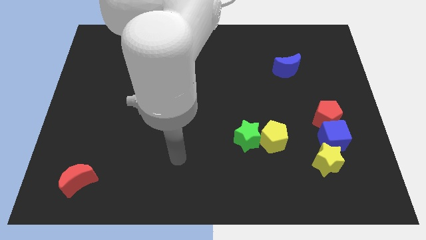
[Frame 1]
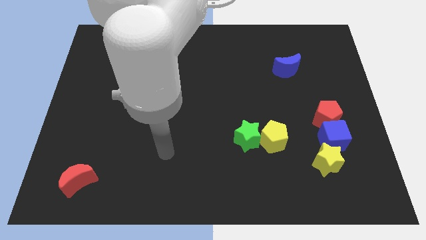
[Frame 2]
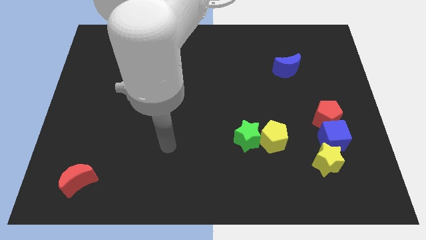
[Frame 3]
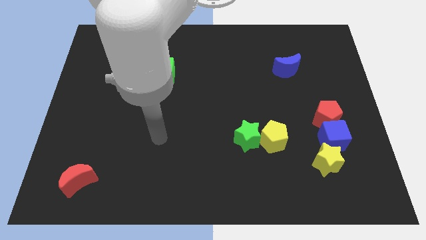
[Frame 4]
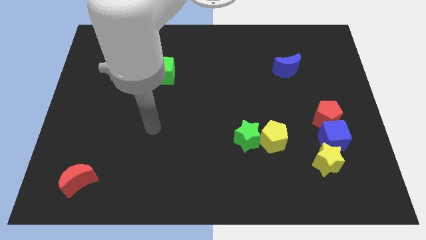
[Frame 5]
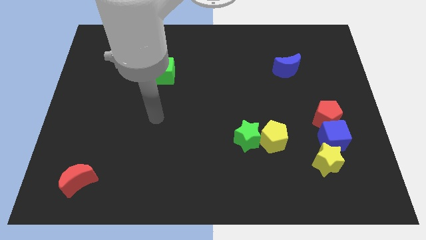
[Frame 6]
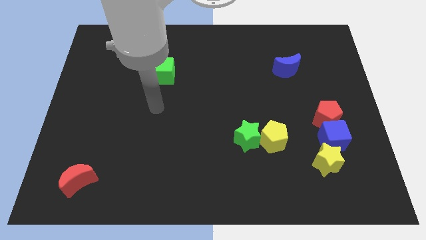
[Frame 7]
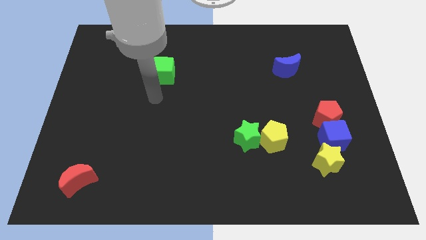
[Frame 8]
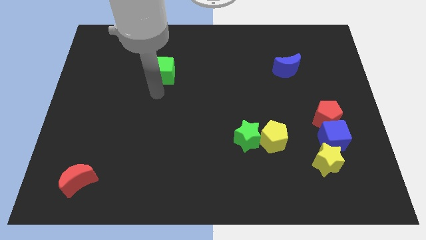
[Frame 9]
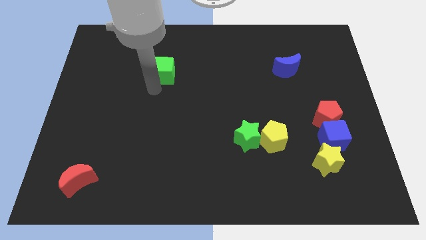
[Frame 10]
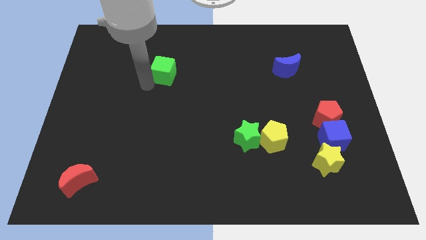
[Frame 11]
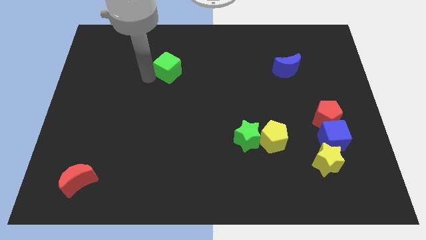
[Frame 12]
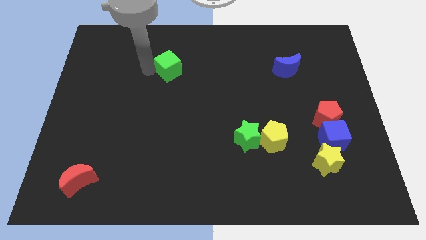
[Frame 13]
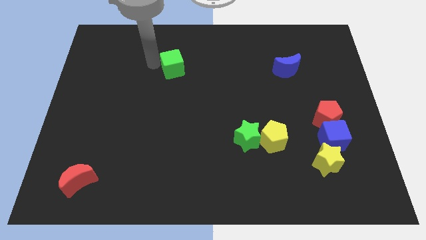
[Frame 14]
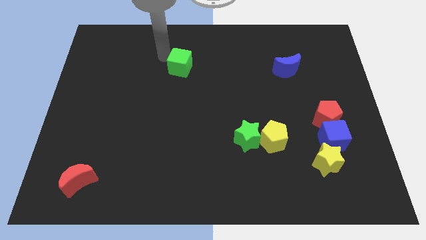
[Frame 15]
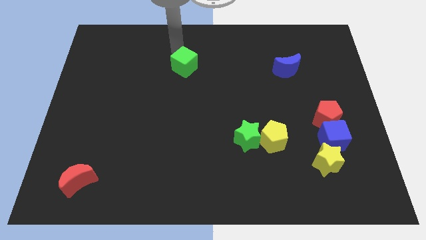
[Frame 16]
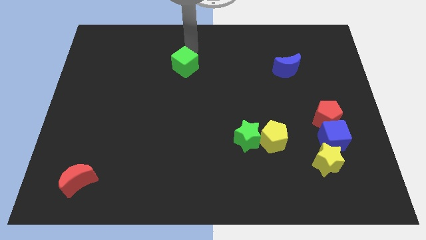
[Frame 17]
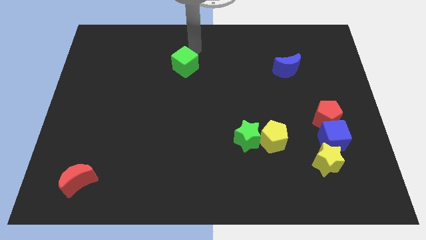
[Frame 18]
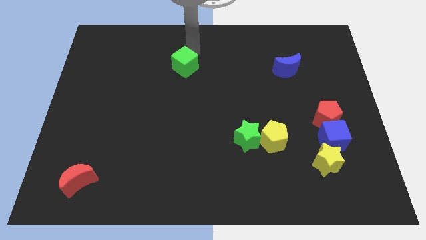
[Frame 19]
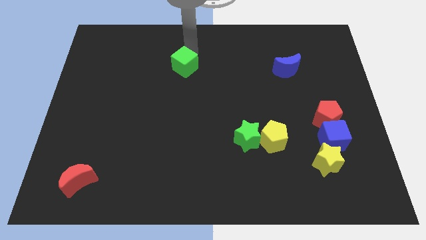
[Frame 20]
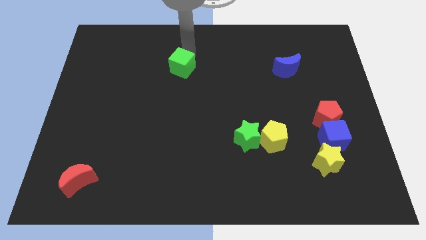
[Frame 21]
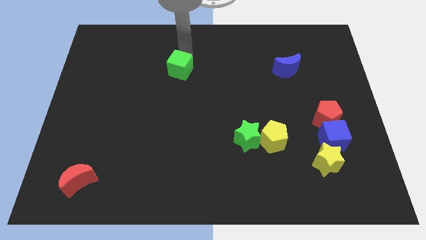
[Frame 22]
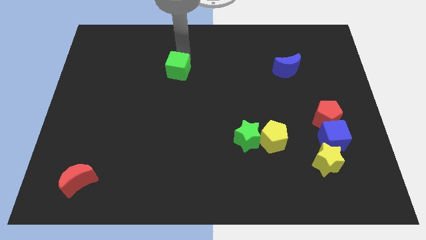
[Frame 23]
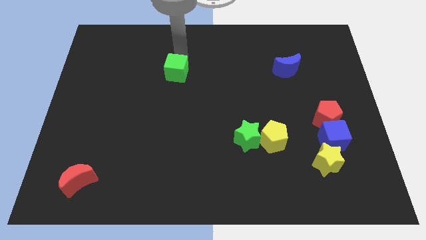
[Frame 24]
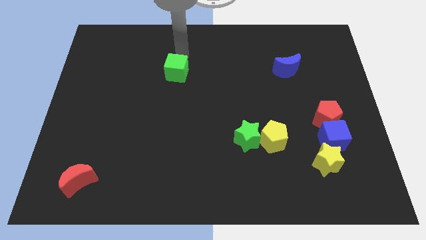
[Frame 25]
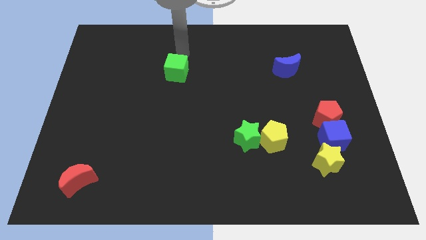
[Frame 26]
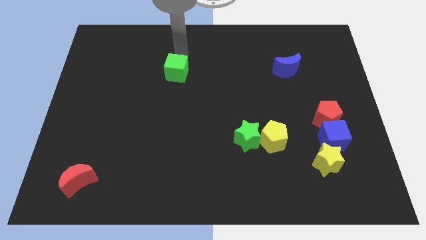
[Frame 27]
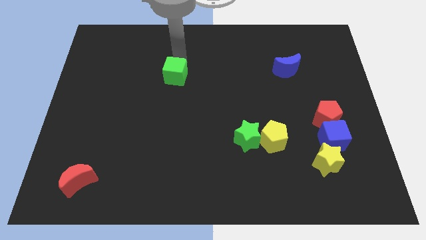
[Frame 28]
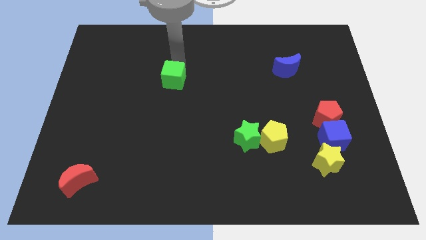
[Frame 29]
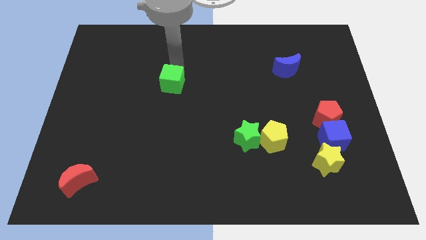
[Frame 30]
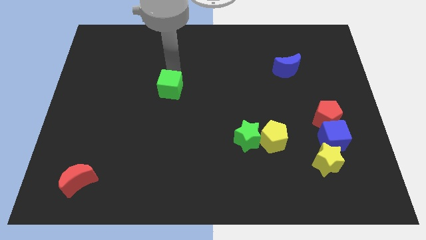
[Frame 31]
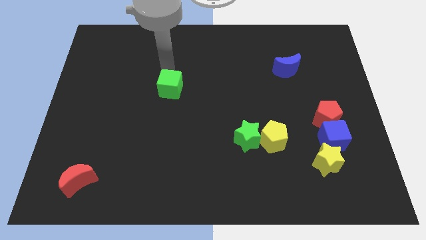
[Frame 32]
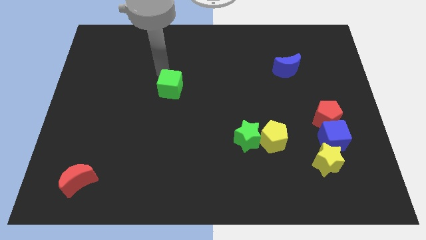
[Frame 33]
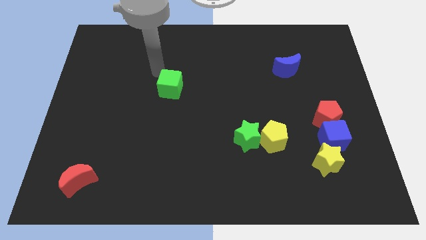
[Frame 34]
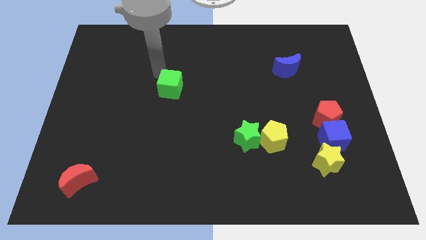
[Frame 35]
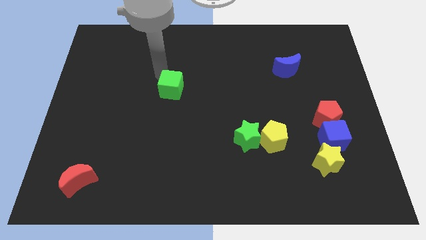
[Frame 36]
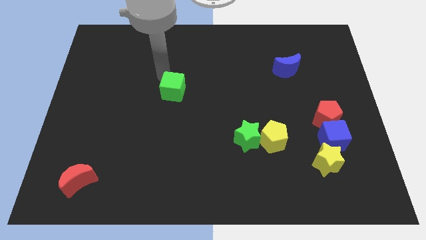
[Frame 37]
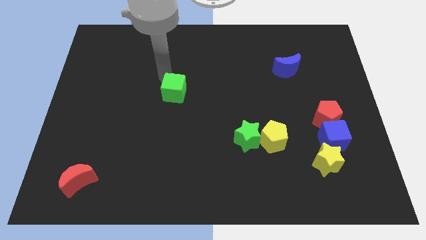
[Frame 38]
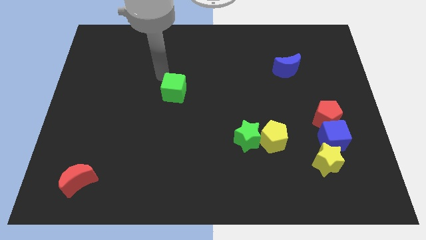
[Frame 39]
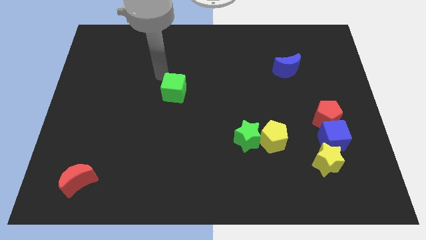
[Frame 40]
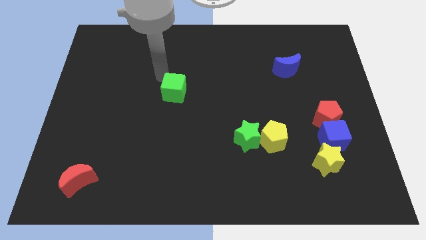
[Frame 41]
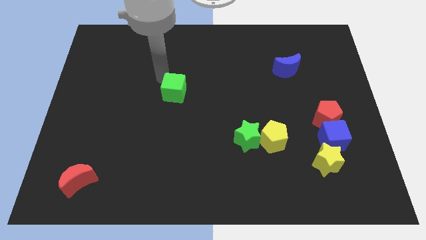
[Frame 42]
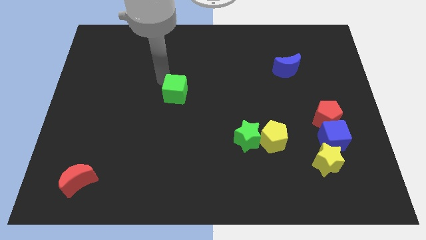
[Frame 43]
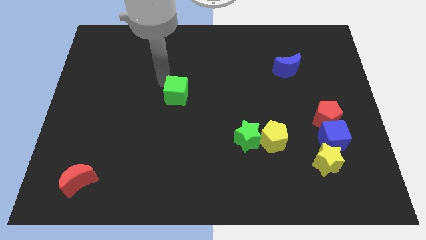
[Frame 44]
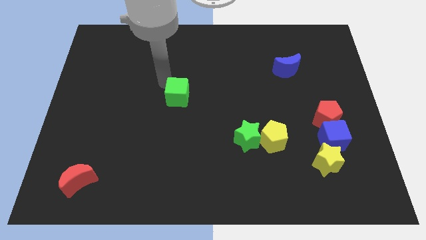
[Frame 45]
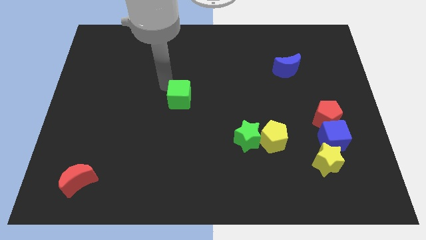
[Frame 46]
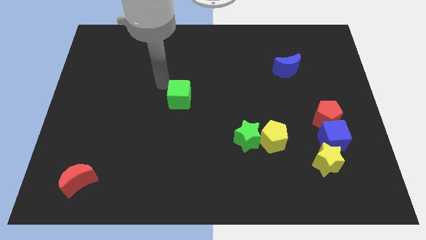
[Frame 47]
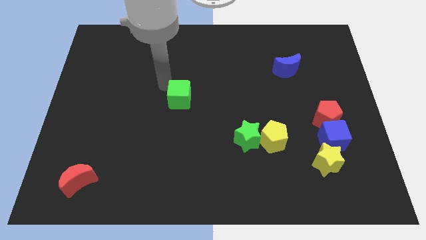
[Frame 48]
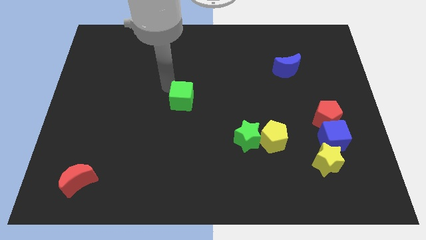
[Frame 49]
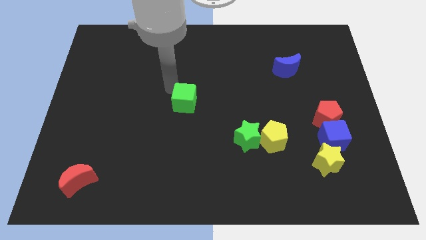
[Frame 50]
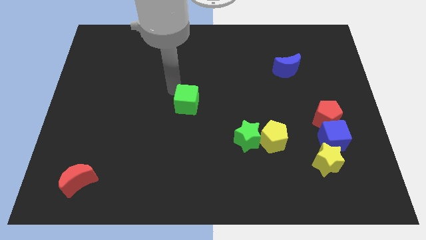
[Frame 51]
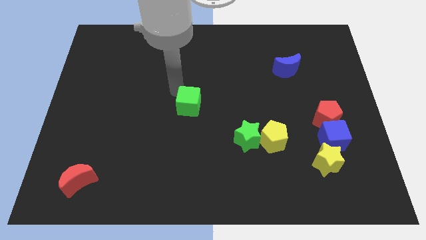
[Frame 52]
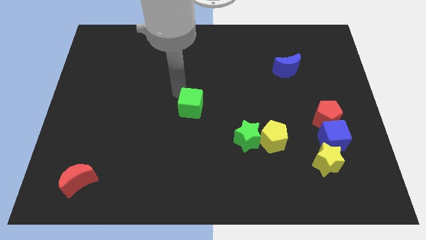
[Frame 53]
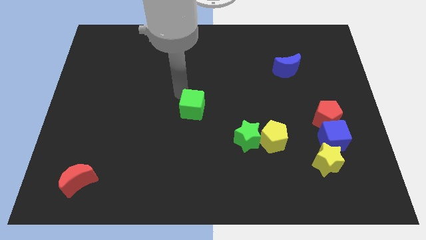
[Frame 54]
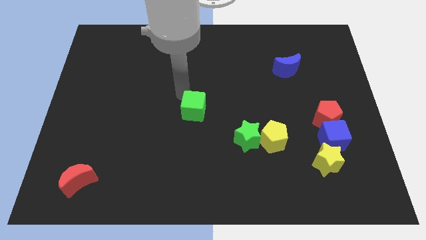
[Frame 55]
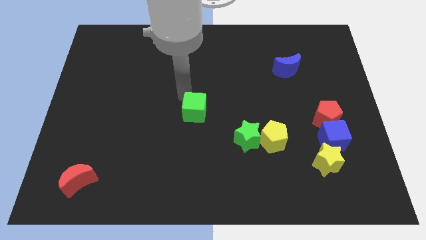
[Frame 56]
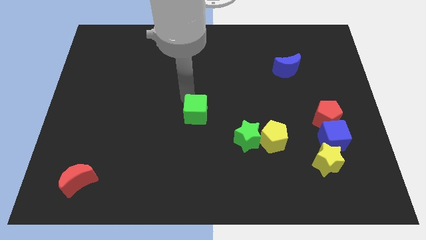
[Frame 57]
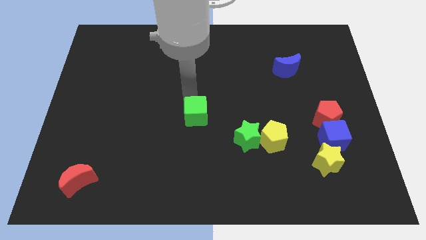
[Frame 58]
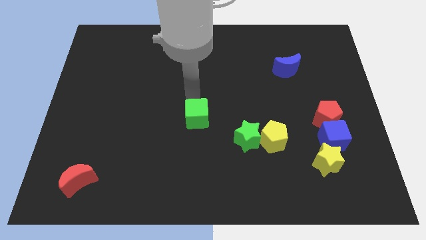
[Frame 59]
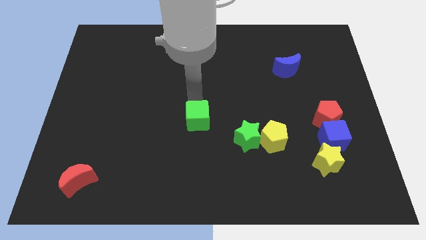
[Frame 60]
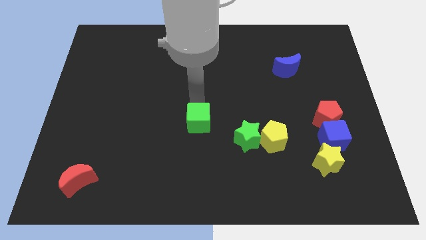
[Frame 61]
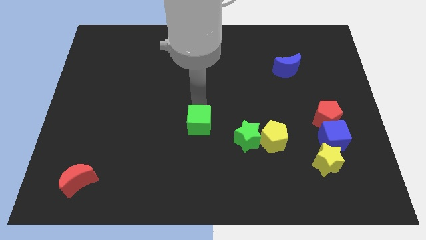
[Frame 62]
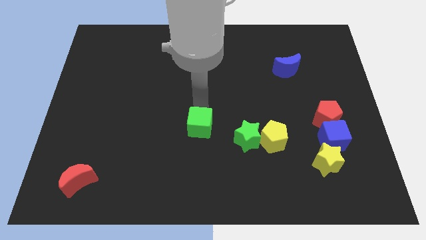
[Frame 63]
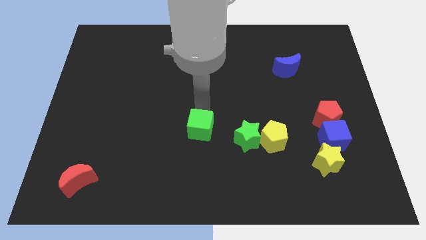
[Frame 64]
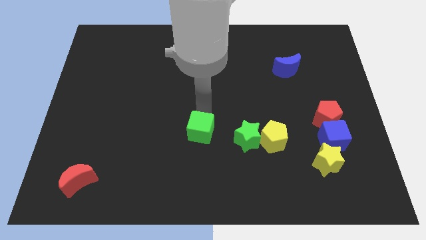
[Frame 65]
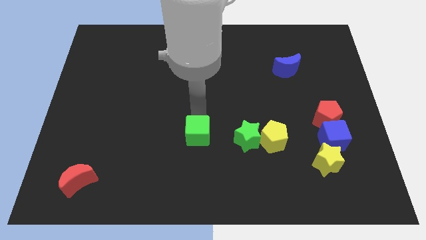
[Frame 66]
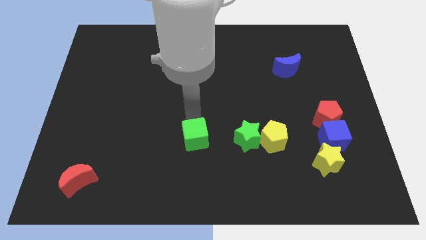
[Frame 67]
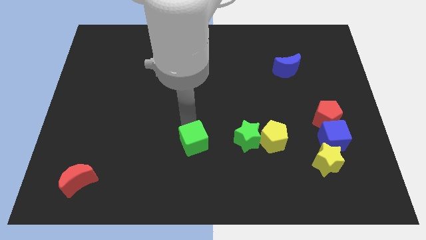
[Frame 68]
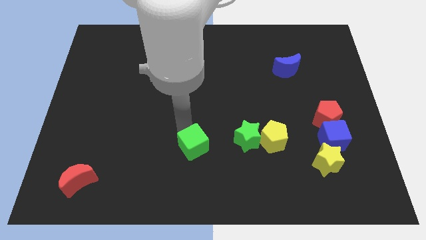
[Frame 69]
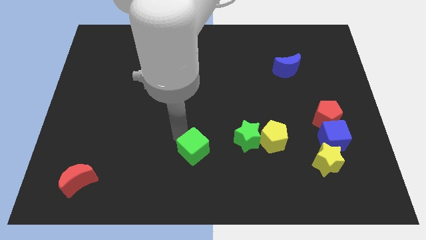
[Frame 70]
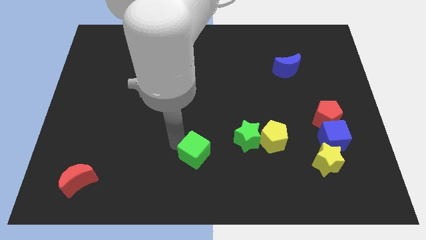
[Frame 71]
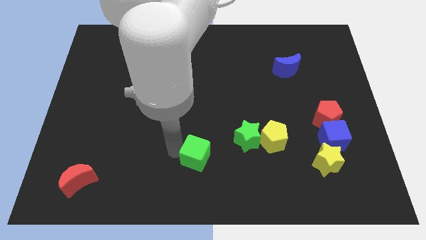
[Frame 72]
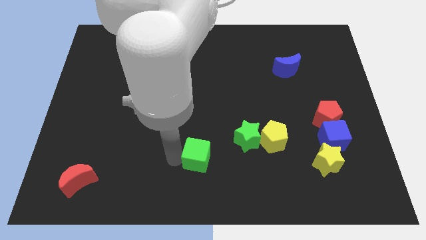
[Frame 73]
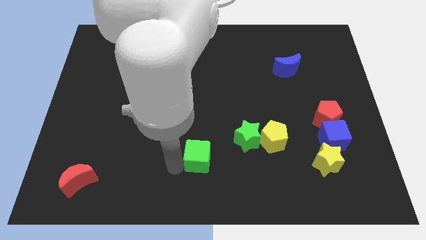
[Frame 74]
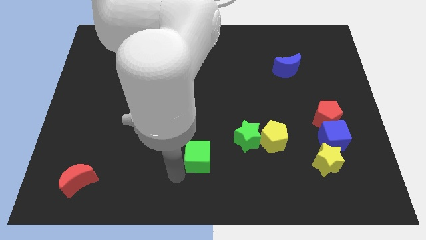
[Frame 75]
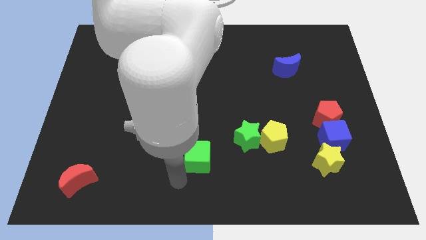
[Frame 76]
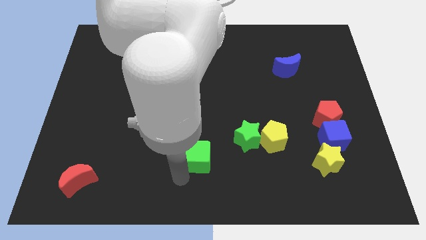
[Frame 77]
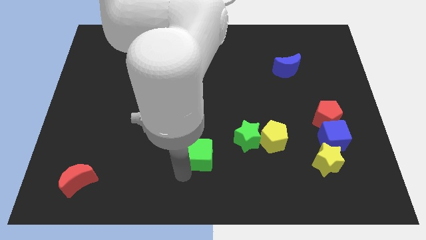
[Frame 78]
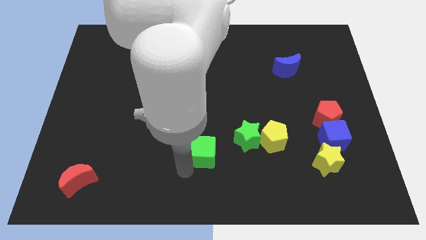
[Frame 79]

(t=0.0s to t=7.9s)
move the green cube down and right

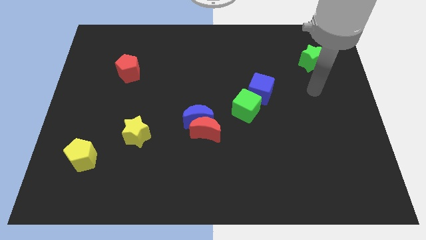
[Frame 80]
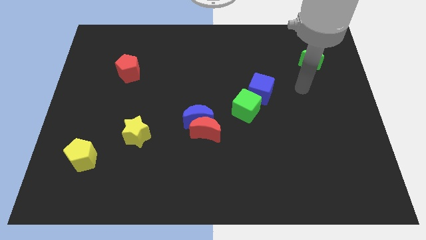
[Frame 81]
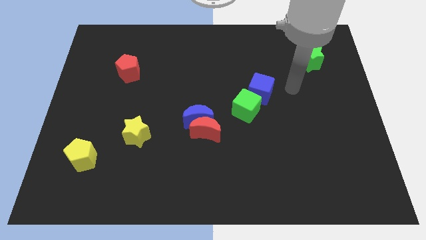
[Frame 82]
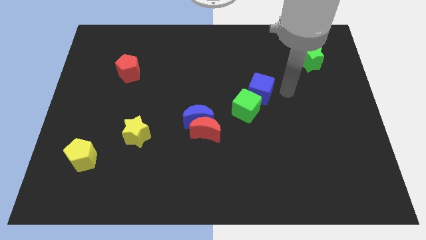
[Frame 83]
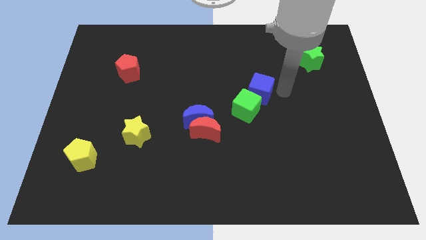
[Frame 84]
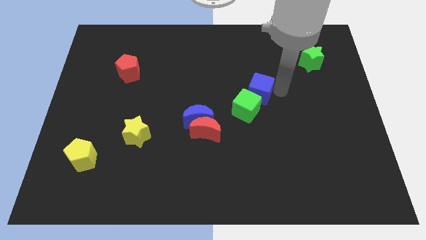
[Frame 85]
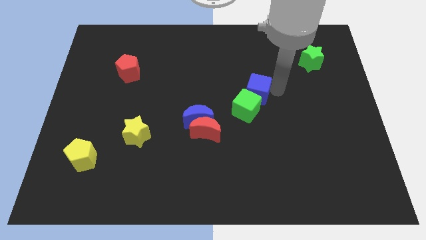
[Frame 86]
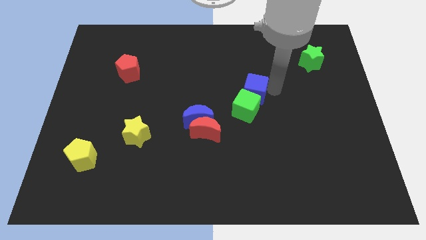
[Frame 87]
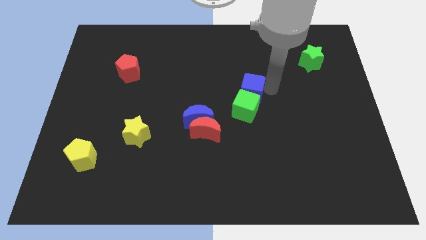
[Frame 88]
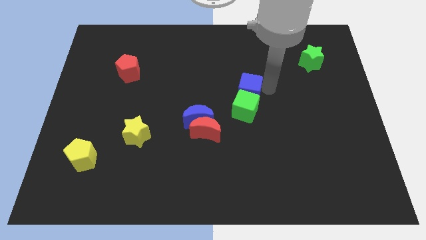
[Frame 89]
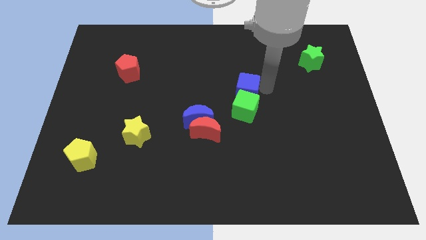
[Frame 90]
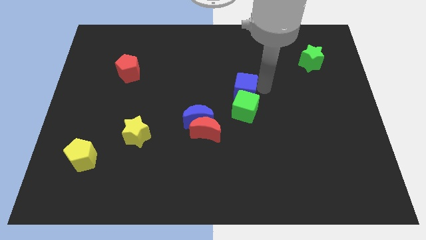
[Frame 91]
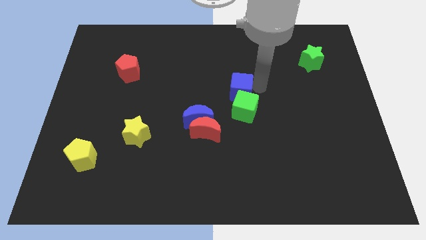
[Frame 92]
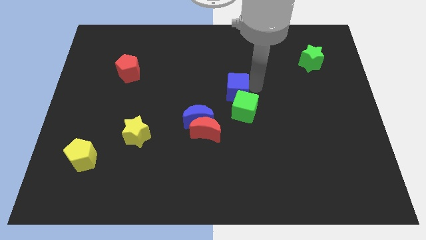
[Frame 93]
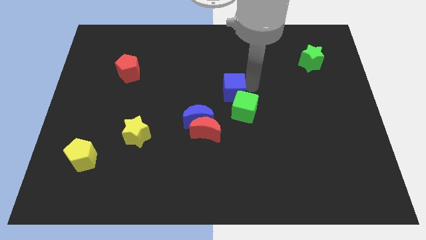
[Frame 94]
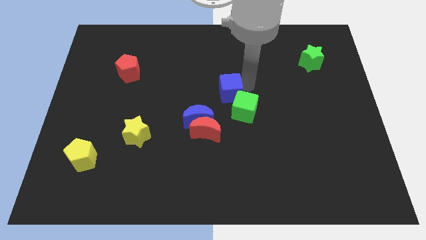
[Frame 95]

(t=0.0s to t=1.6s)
slide the blue cube slightly left
